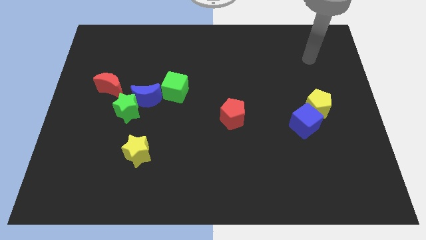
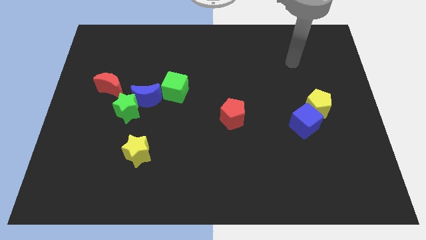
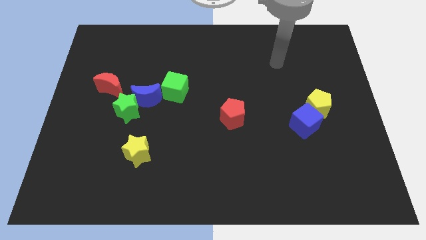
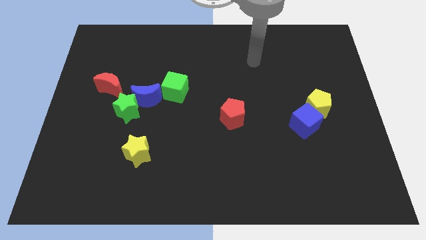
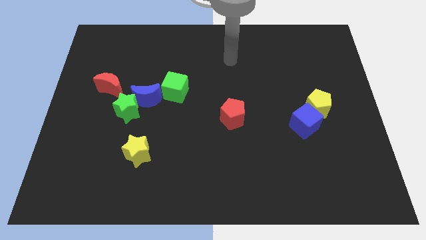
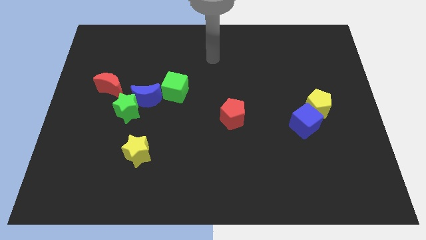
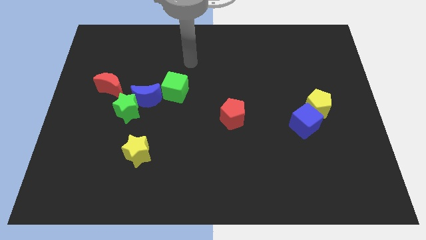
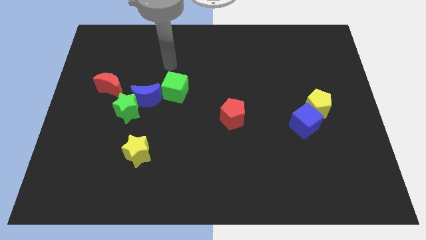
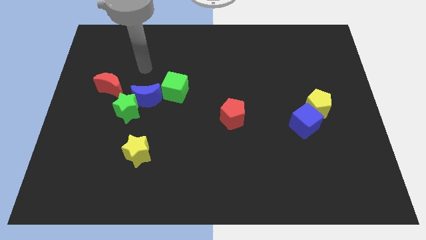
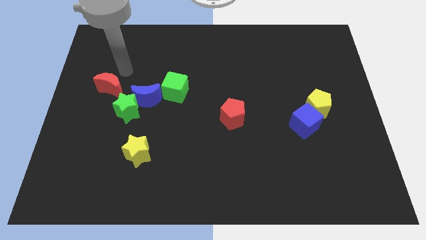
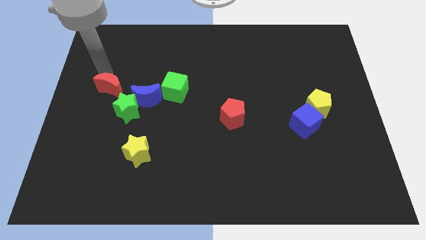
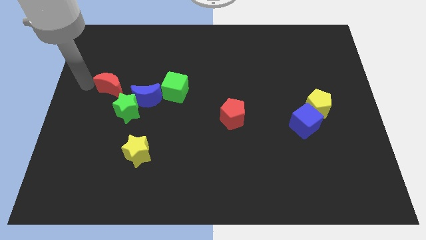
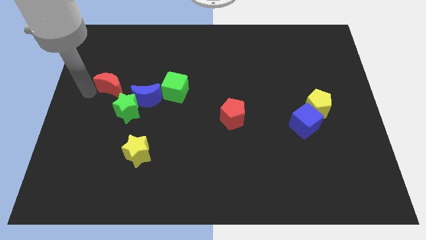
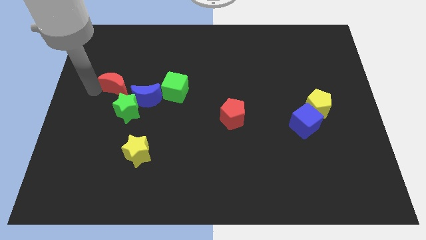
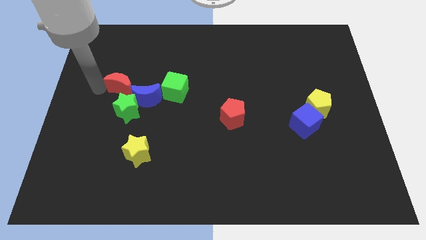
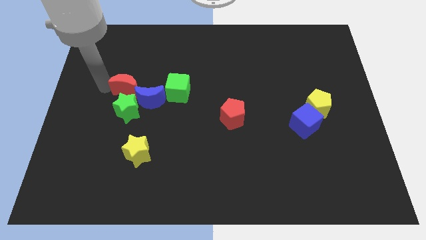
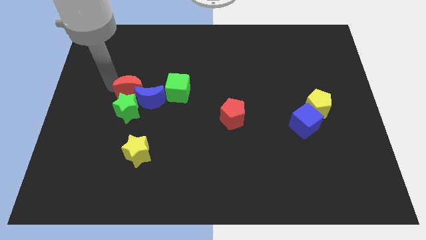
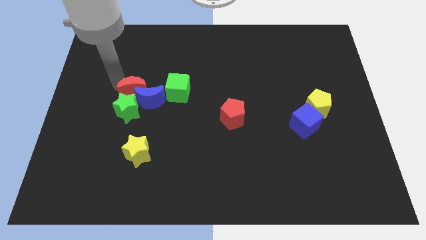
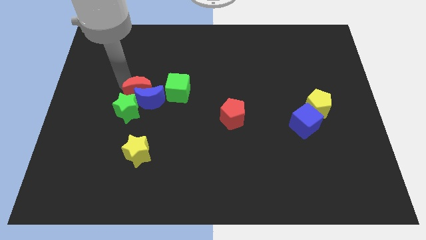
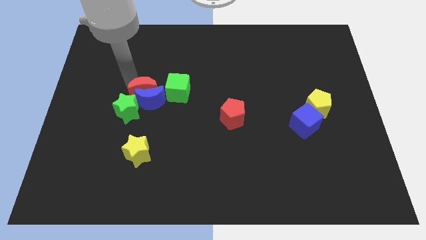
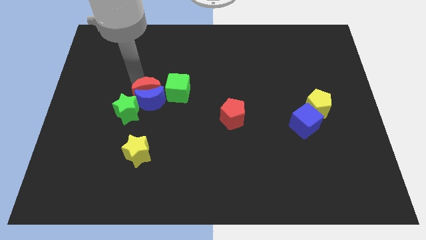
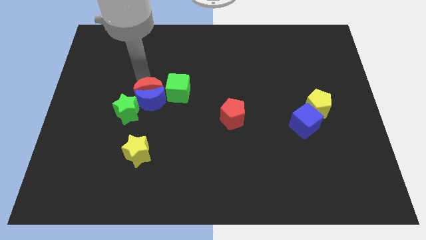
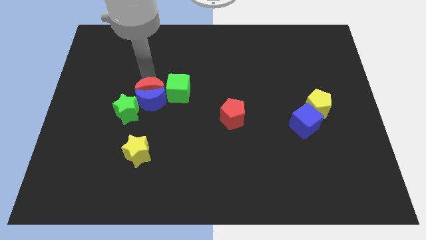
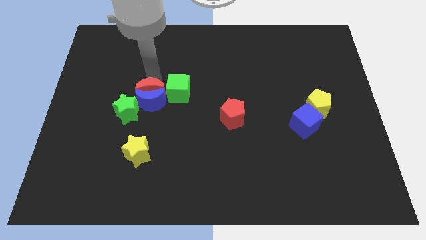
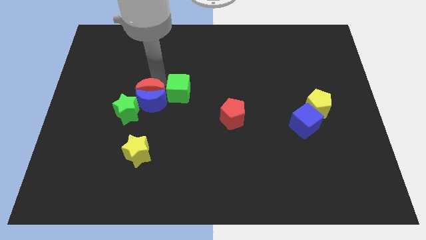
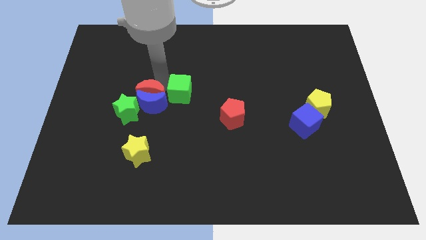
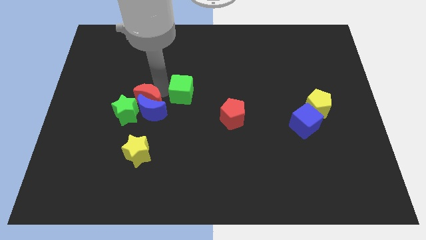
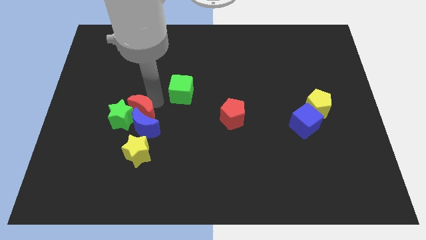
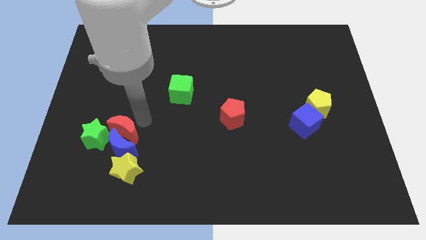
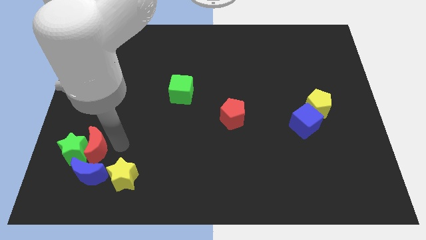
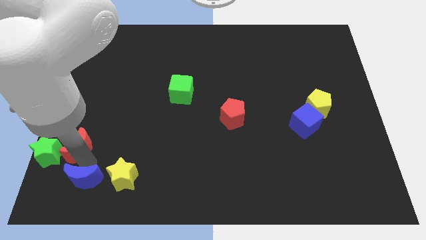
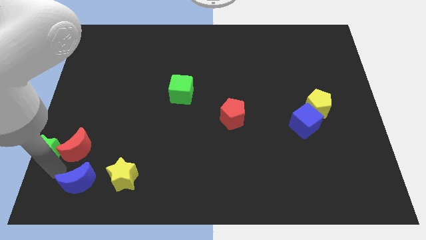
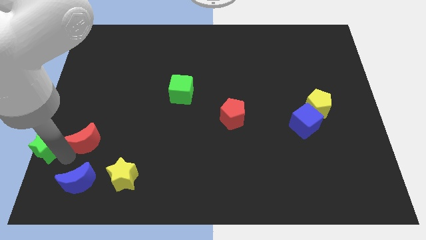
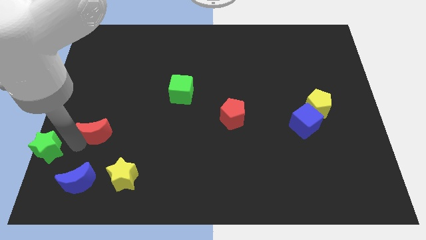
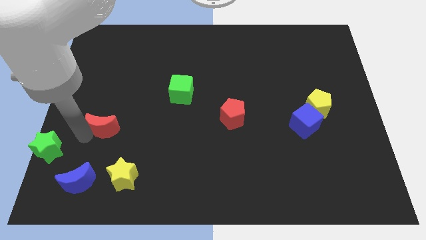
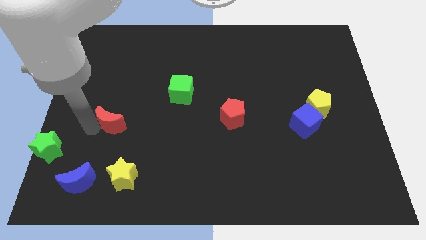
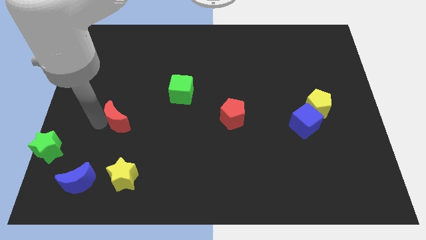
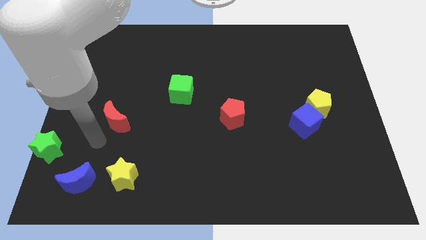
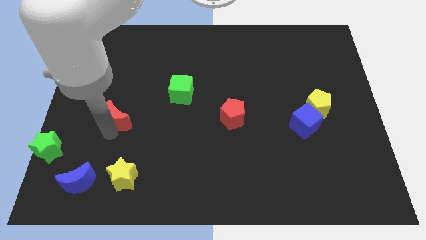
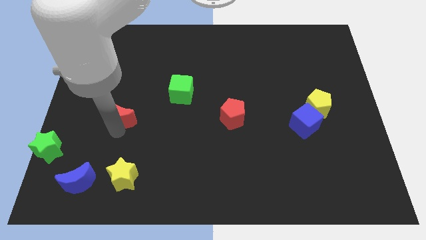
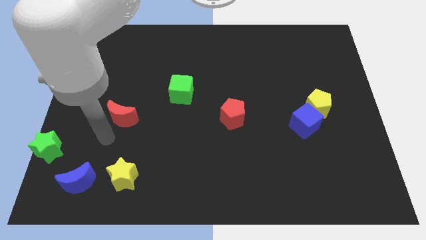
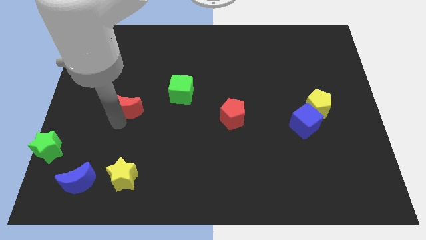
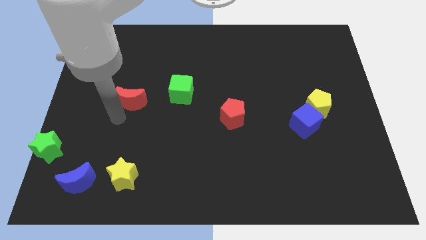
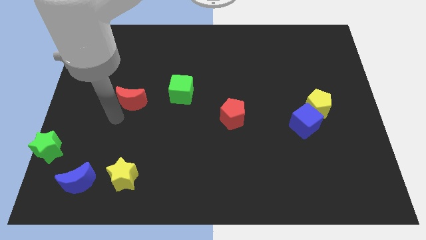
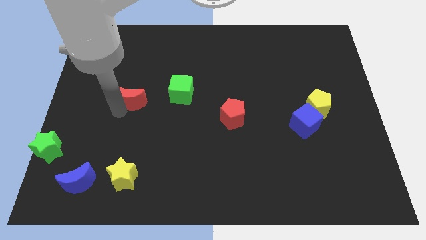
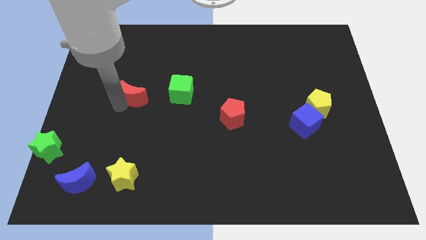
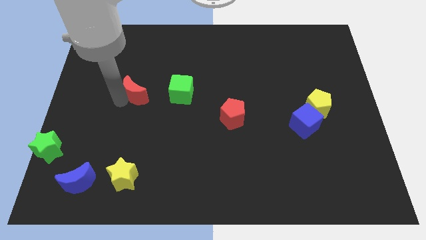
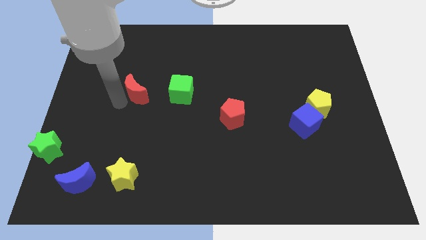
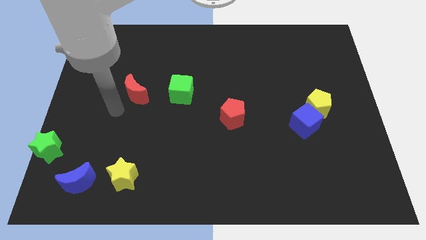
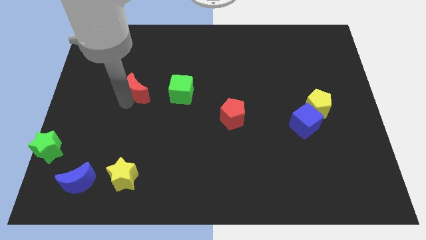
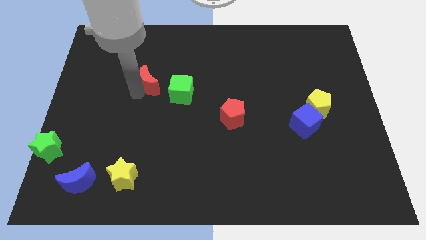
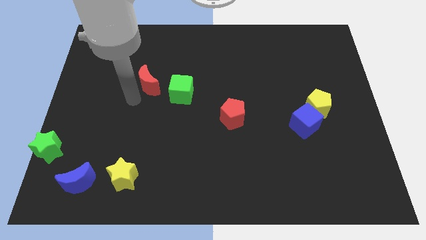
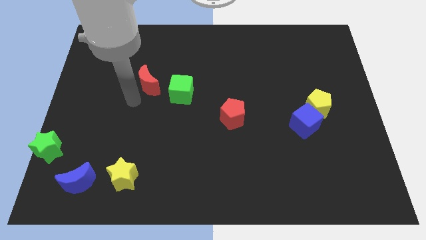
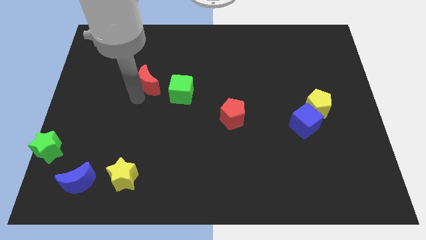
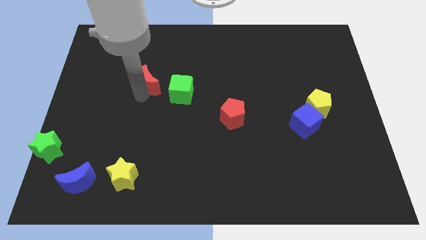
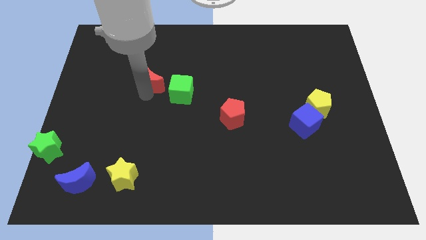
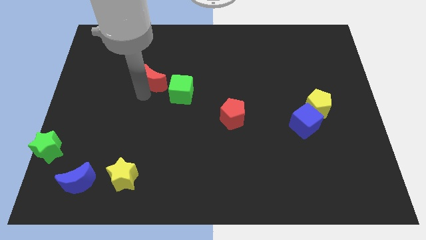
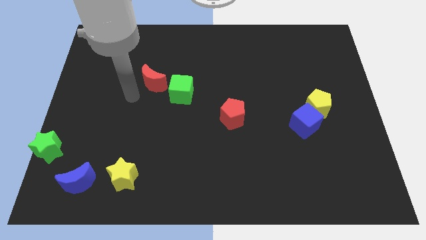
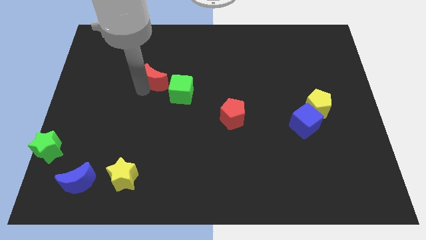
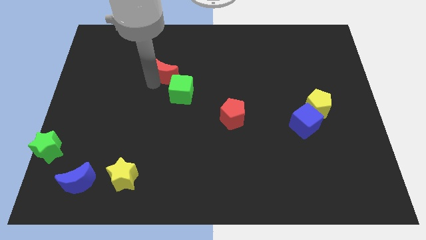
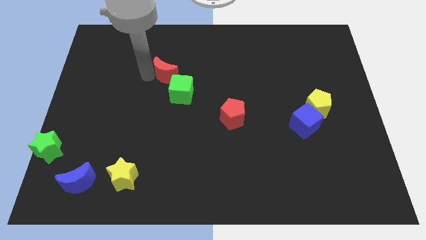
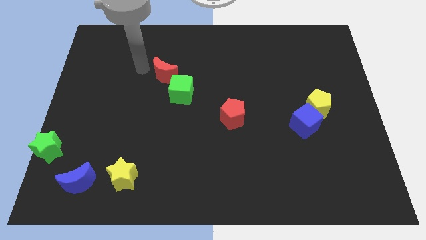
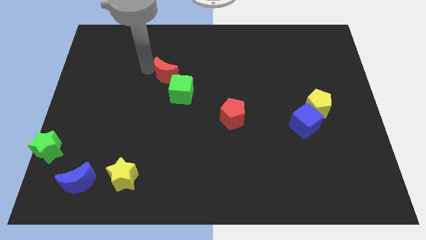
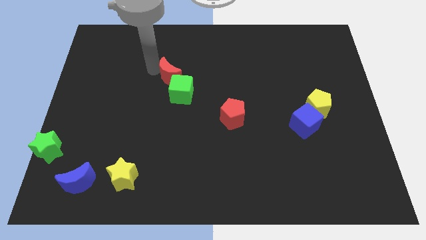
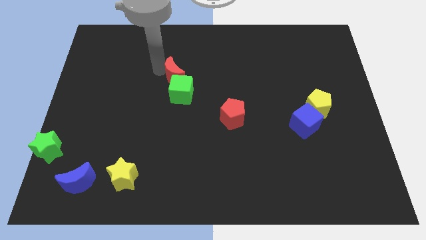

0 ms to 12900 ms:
put the red moon to the middle

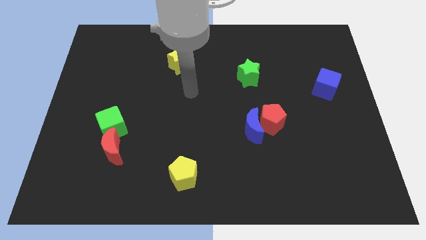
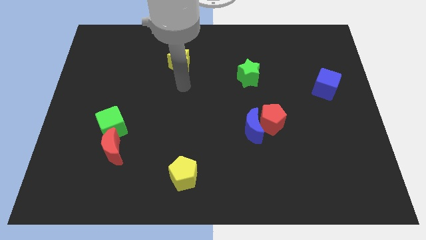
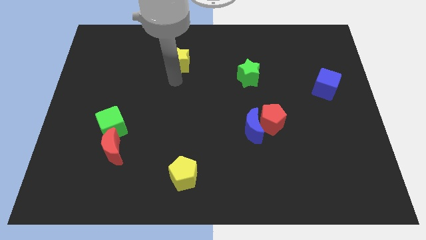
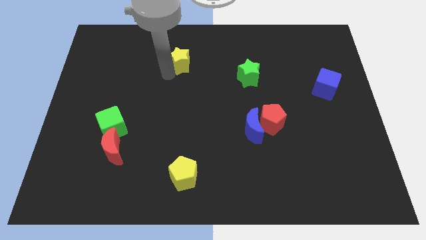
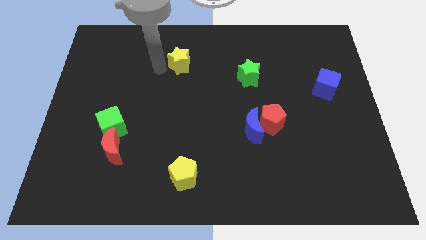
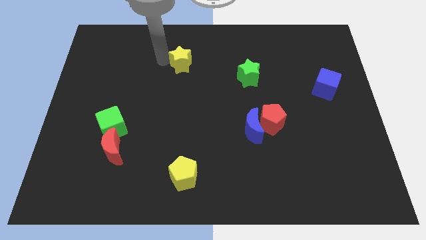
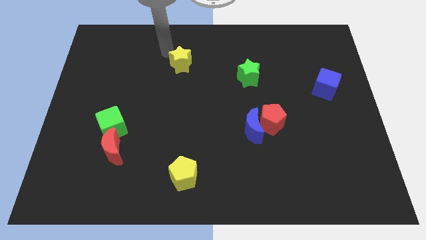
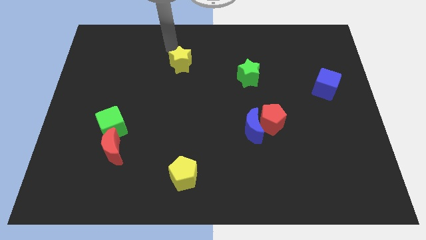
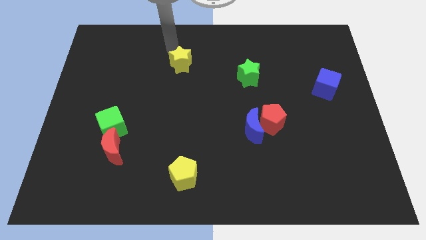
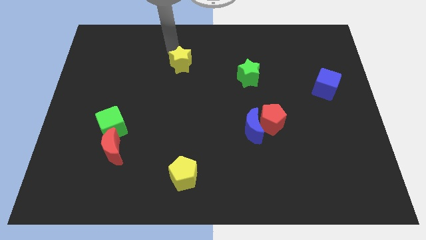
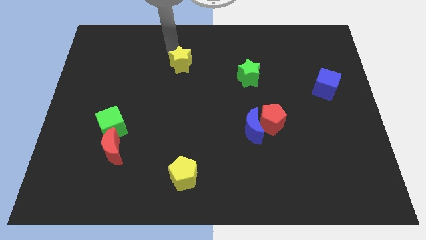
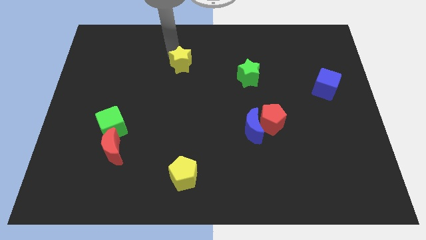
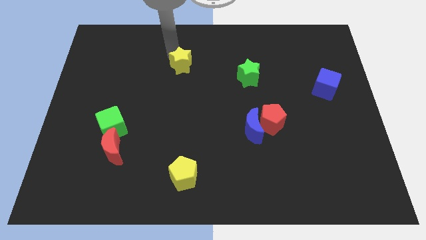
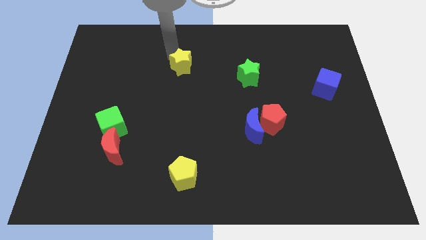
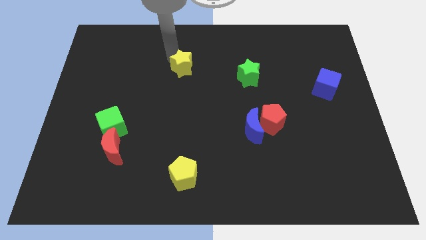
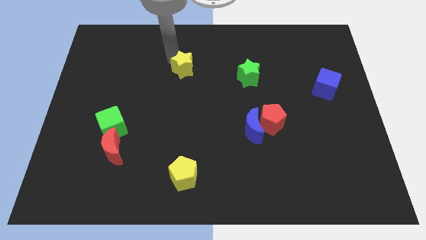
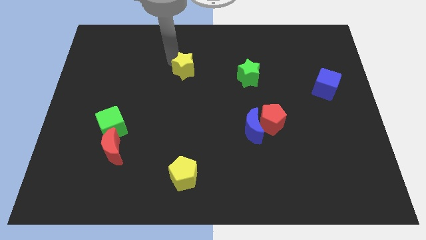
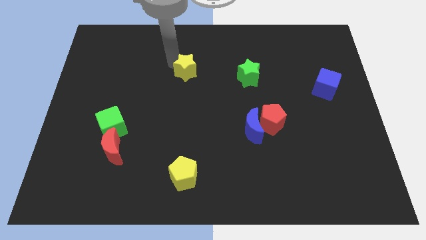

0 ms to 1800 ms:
push the yellow star to the middle
